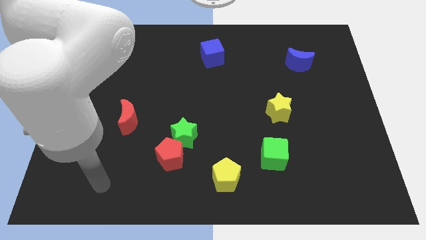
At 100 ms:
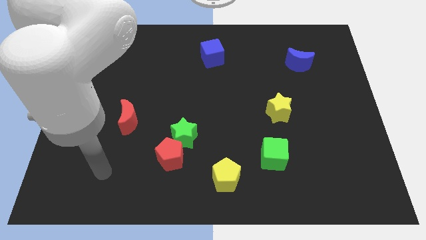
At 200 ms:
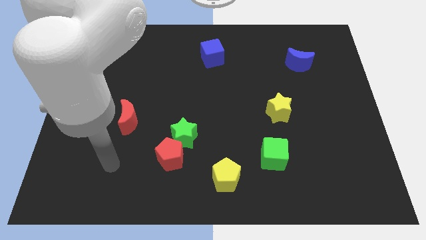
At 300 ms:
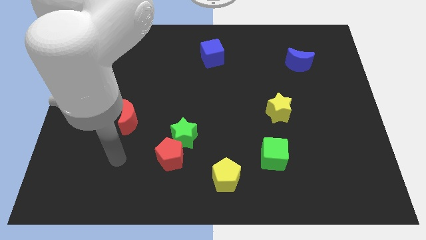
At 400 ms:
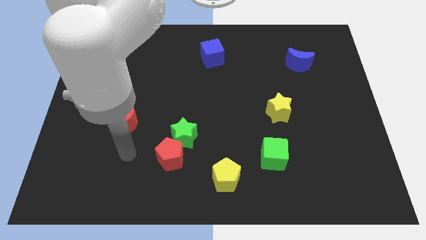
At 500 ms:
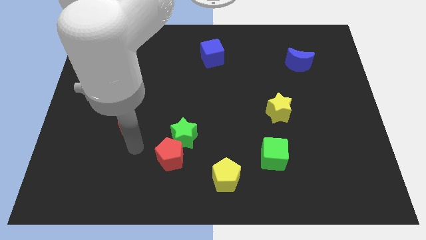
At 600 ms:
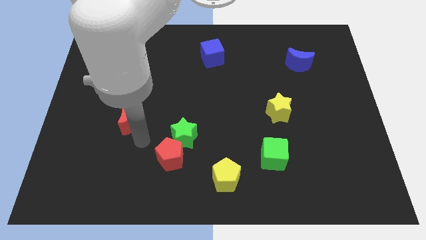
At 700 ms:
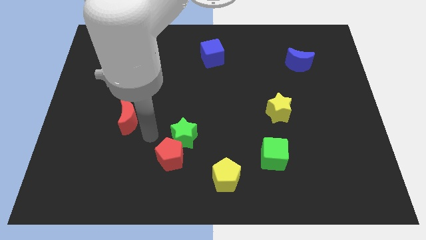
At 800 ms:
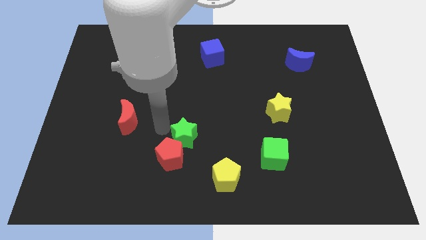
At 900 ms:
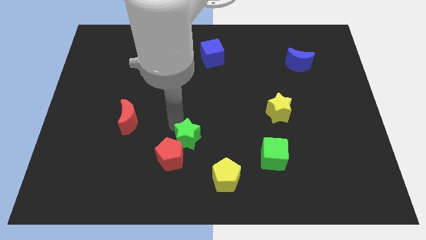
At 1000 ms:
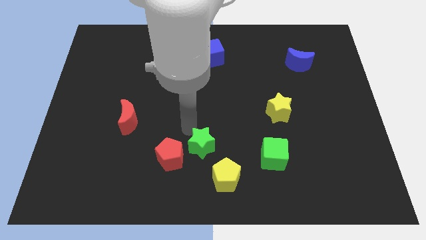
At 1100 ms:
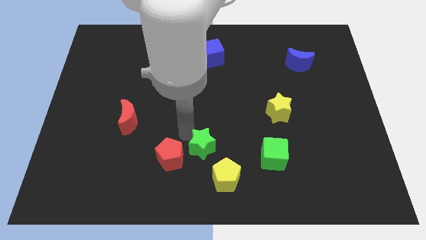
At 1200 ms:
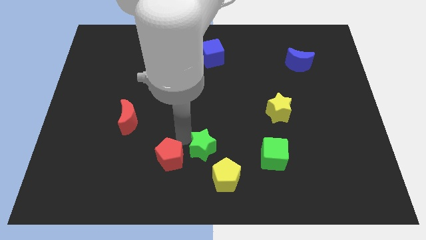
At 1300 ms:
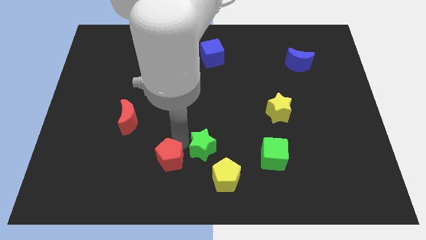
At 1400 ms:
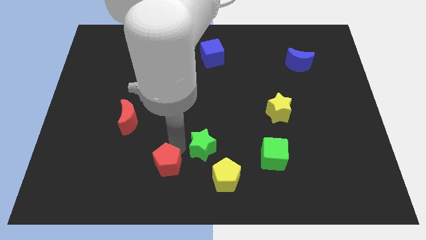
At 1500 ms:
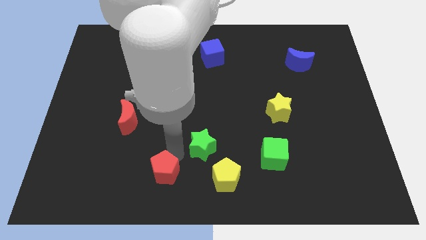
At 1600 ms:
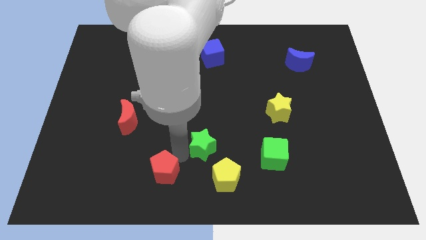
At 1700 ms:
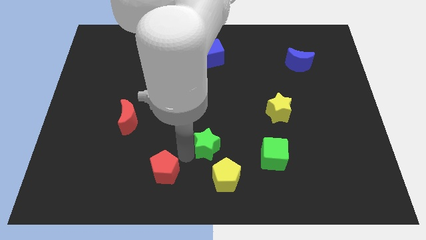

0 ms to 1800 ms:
pull the red pentagon apart from the green star

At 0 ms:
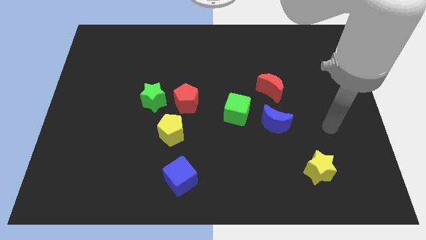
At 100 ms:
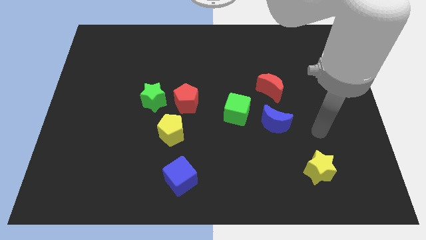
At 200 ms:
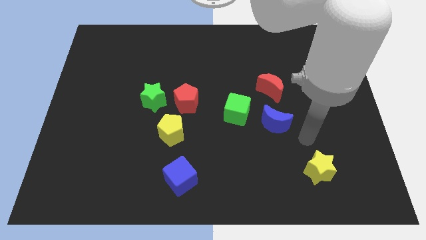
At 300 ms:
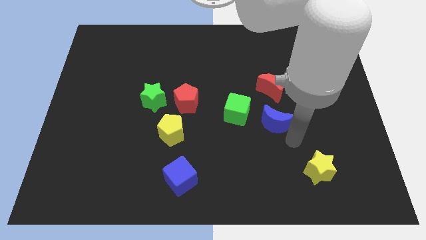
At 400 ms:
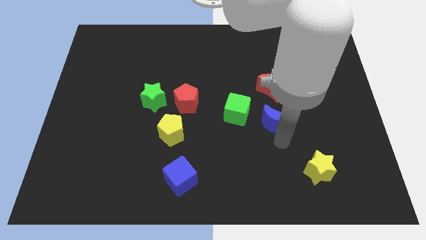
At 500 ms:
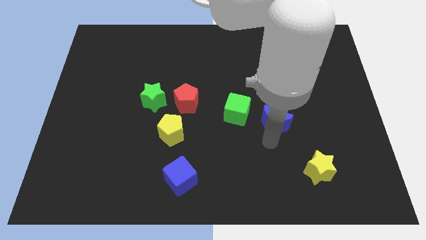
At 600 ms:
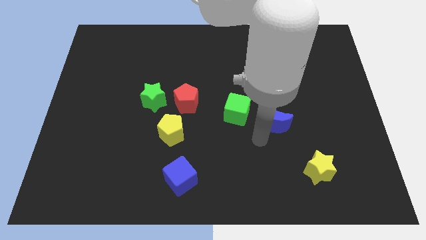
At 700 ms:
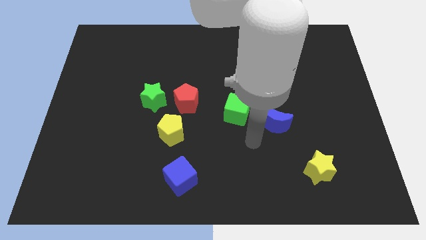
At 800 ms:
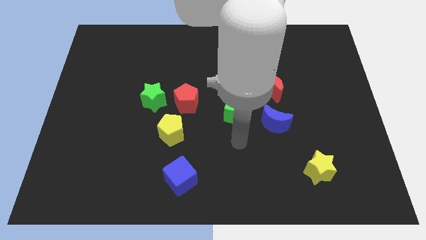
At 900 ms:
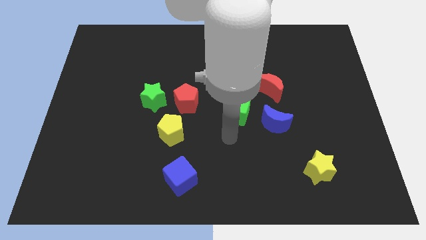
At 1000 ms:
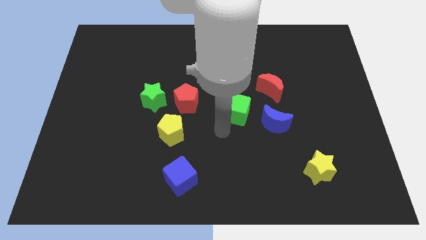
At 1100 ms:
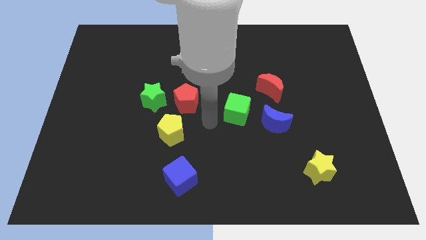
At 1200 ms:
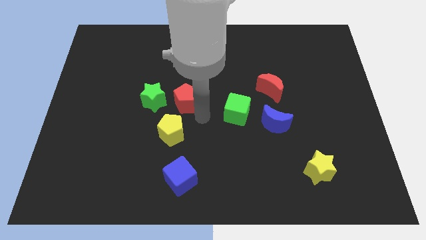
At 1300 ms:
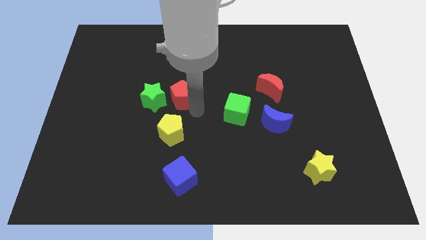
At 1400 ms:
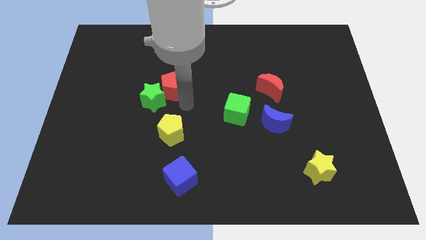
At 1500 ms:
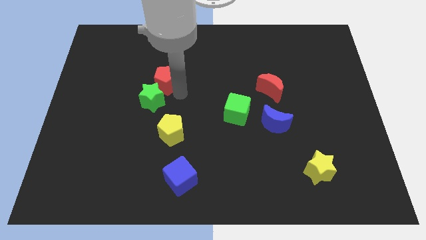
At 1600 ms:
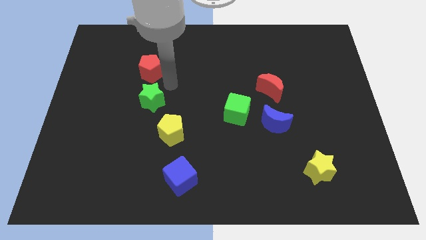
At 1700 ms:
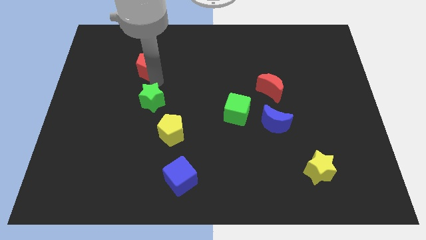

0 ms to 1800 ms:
move the green star away from the red pentagon

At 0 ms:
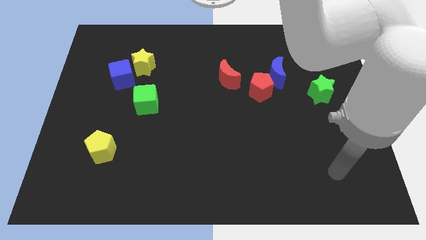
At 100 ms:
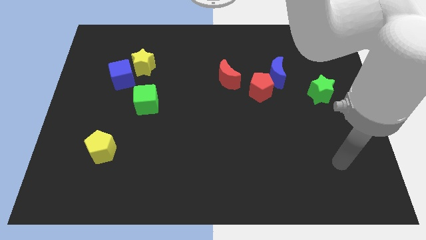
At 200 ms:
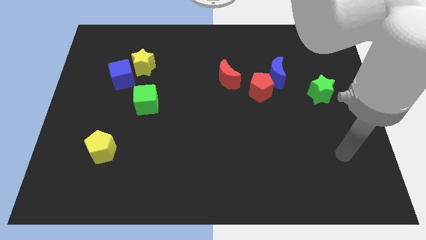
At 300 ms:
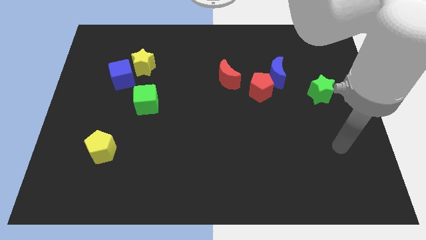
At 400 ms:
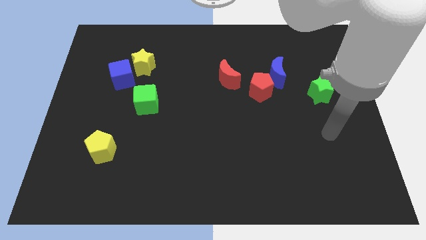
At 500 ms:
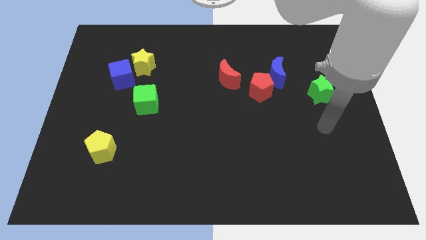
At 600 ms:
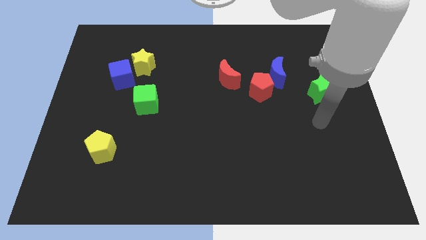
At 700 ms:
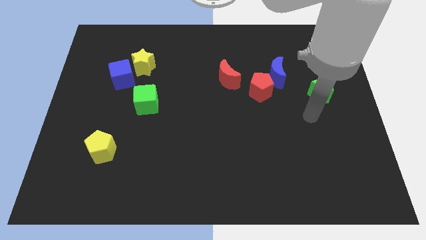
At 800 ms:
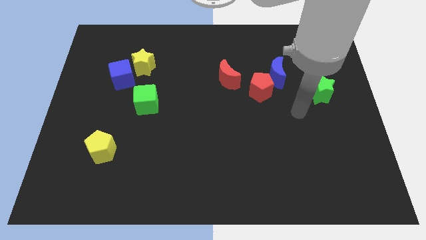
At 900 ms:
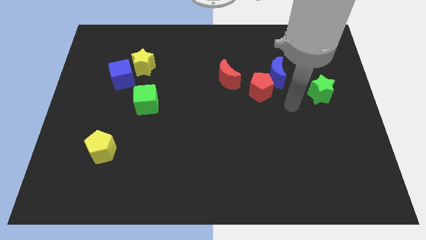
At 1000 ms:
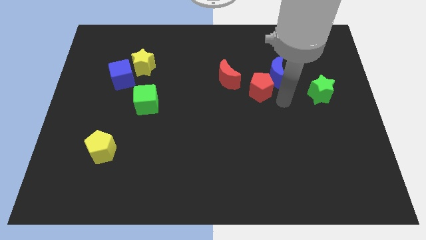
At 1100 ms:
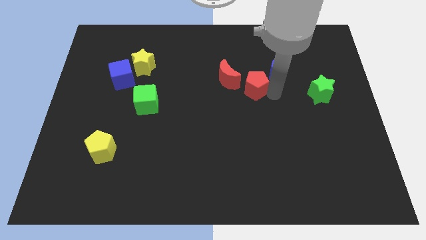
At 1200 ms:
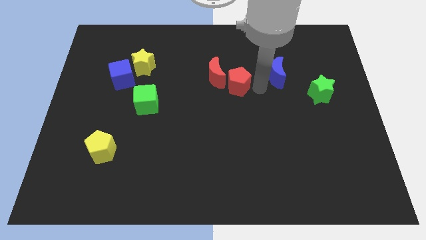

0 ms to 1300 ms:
pull the blue moon apart from the red pentagon

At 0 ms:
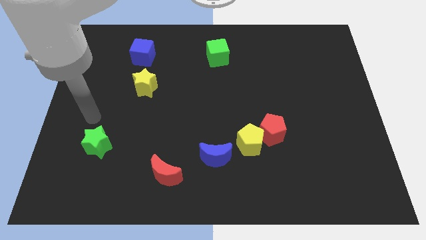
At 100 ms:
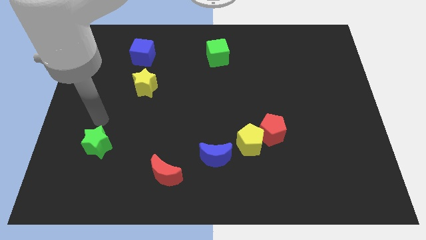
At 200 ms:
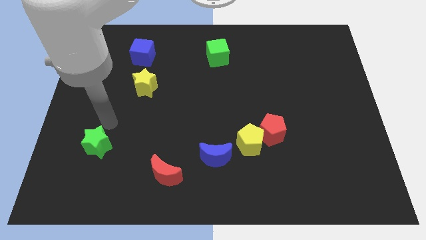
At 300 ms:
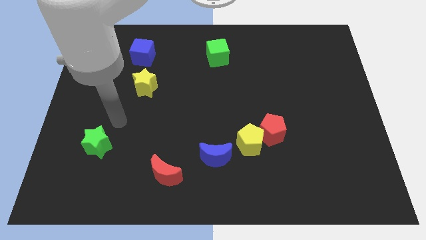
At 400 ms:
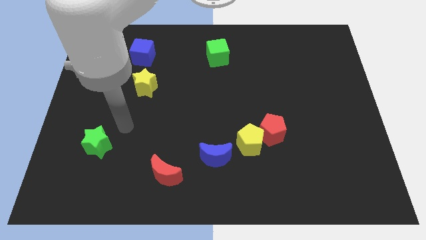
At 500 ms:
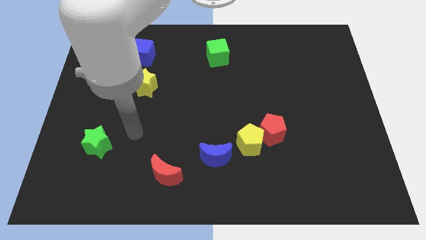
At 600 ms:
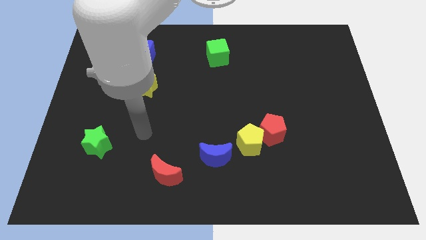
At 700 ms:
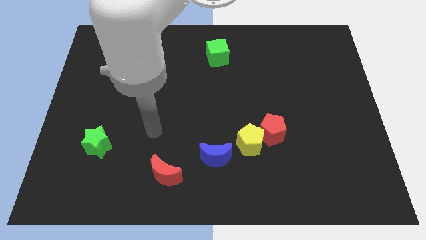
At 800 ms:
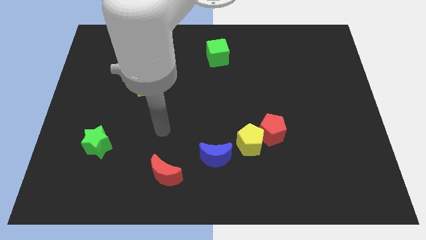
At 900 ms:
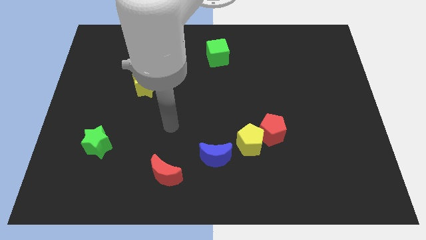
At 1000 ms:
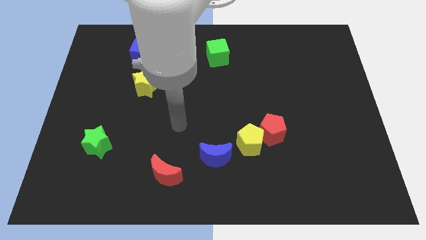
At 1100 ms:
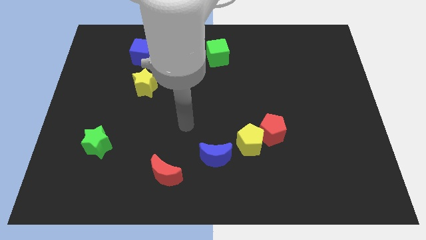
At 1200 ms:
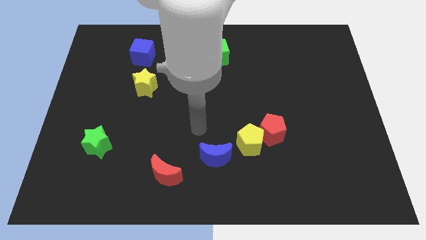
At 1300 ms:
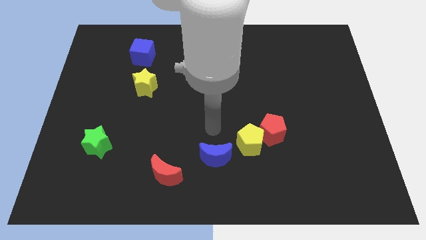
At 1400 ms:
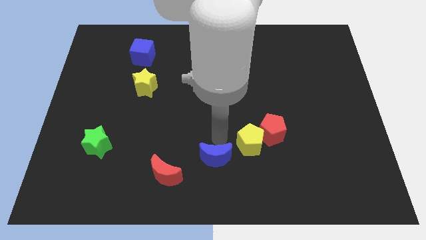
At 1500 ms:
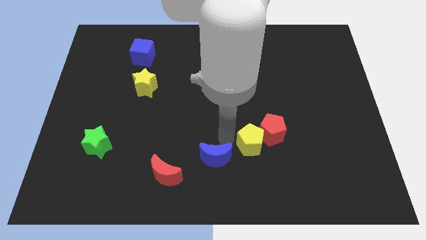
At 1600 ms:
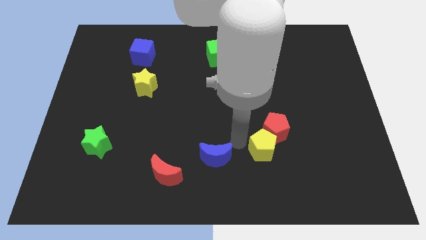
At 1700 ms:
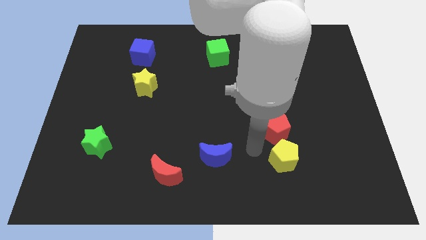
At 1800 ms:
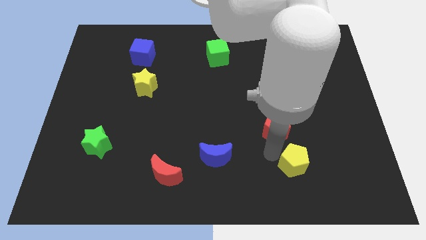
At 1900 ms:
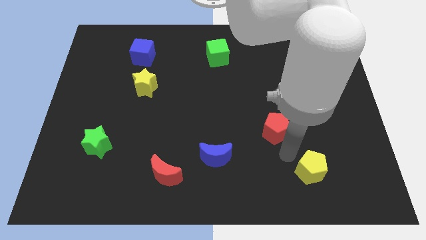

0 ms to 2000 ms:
separate the red pentagon from the yellow pentagon

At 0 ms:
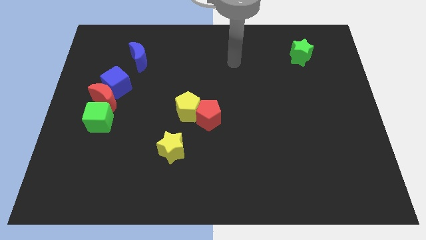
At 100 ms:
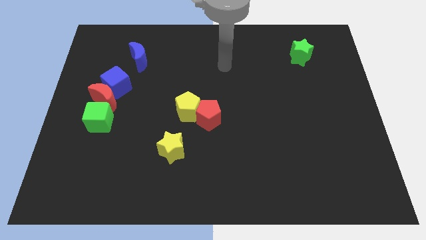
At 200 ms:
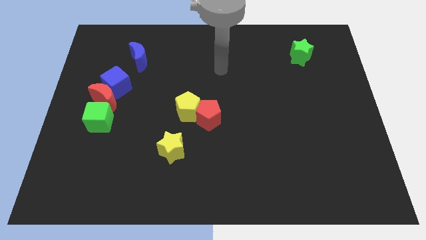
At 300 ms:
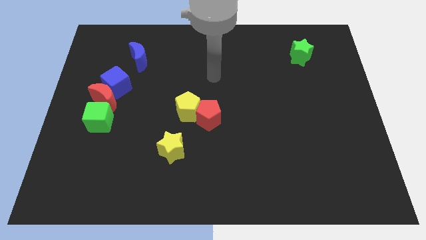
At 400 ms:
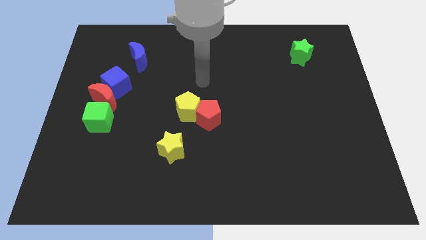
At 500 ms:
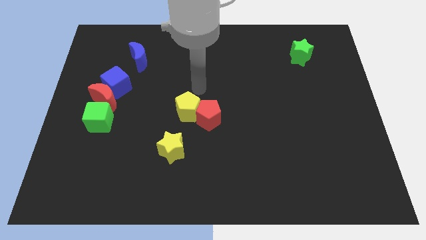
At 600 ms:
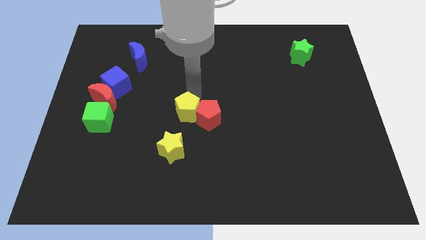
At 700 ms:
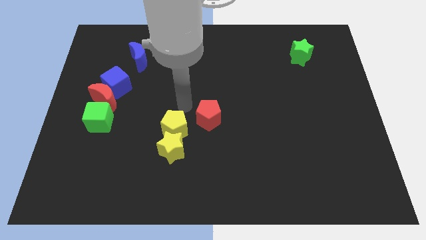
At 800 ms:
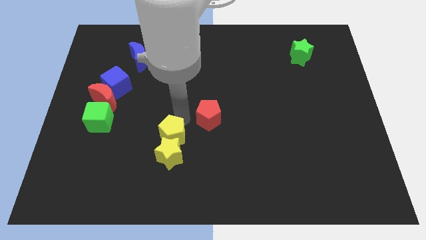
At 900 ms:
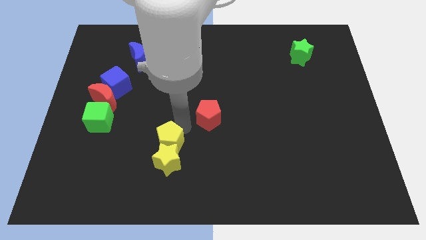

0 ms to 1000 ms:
move the red pentagon away from the yellow pentagon

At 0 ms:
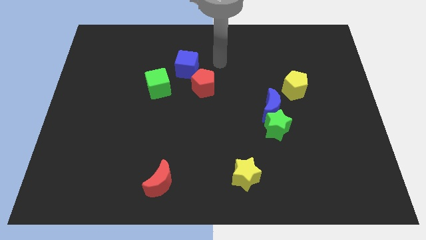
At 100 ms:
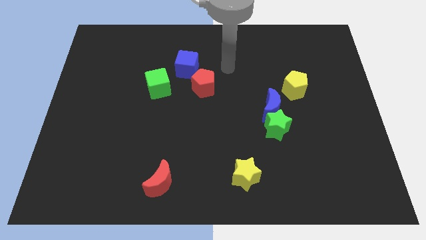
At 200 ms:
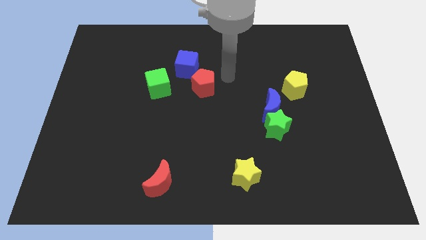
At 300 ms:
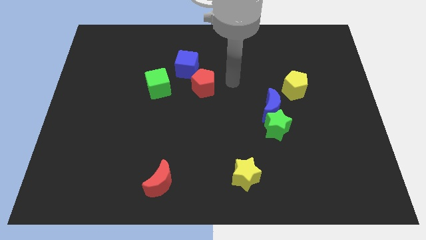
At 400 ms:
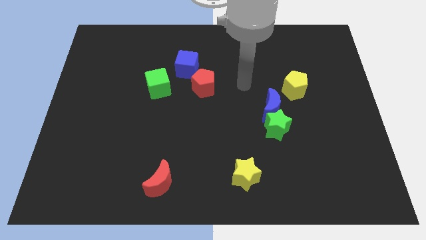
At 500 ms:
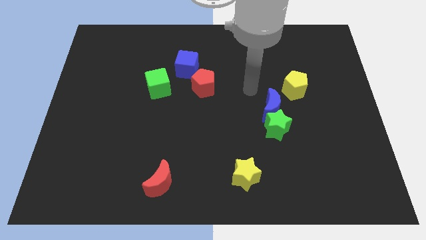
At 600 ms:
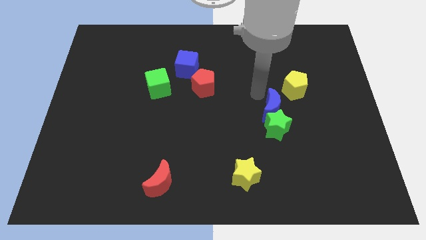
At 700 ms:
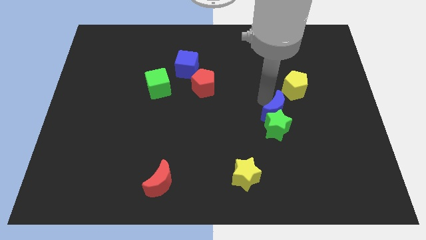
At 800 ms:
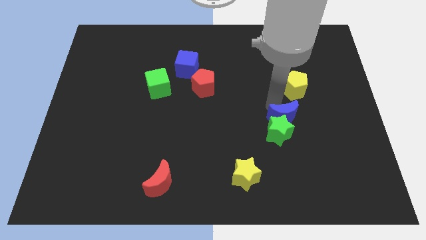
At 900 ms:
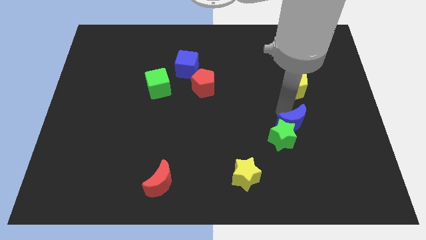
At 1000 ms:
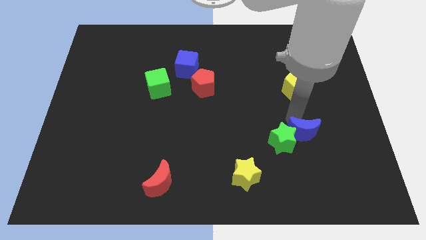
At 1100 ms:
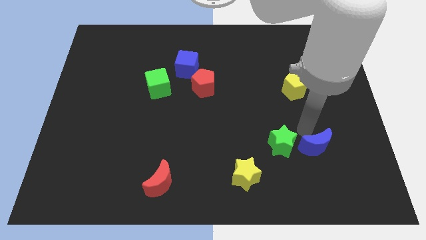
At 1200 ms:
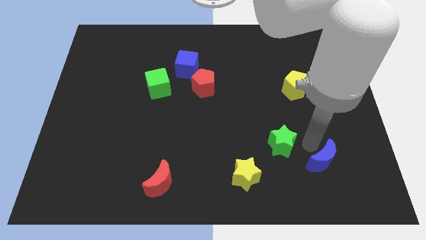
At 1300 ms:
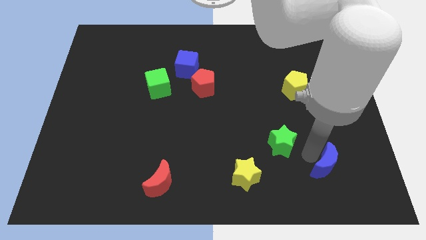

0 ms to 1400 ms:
pull the green star apart from the blue moon

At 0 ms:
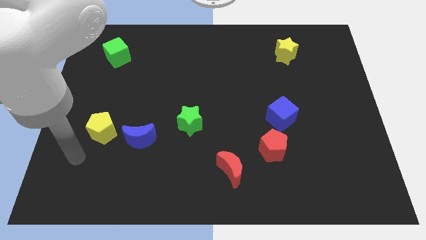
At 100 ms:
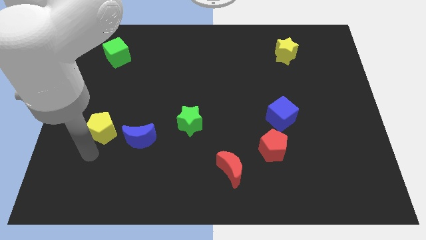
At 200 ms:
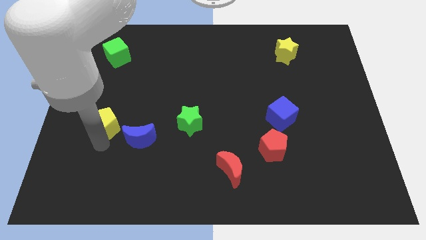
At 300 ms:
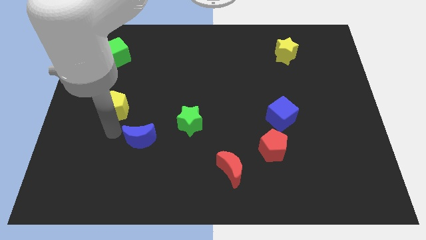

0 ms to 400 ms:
move the blue moon away from the yellow pentagon
